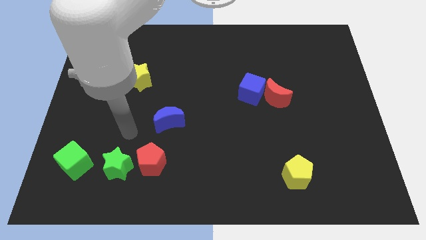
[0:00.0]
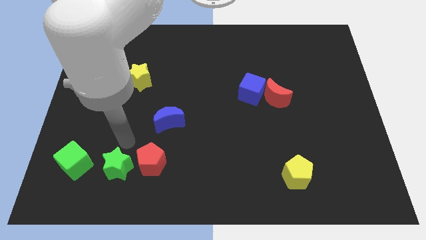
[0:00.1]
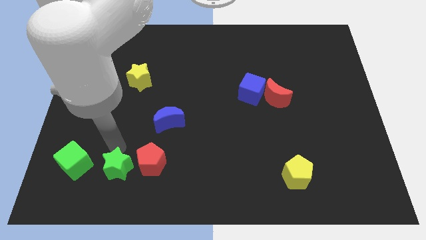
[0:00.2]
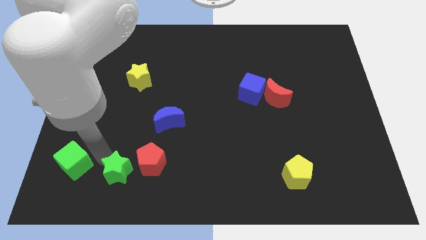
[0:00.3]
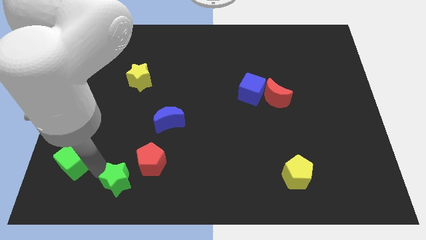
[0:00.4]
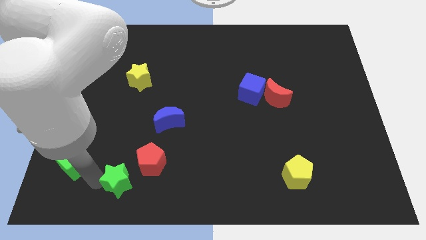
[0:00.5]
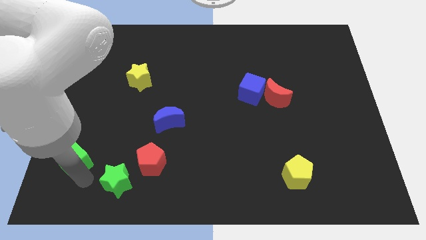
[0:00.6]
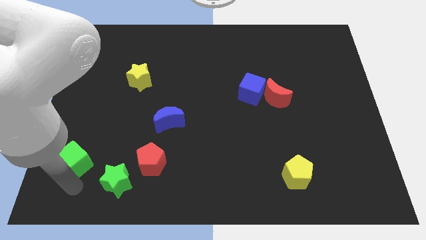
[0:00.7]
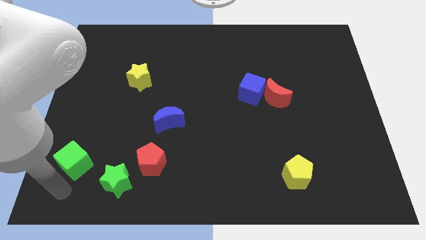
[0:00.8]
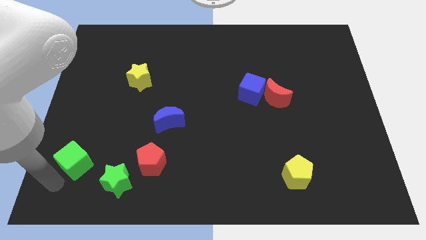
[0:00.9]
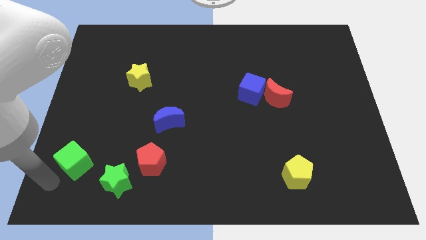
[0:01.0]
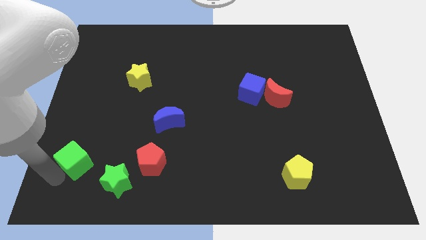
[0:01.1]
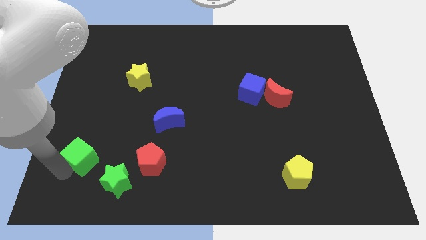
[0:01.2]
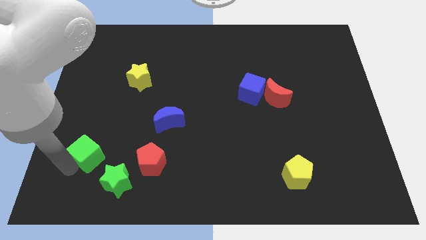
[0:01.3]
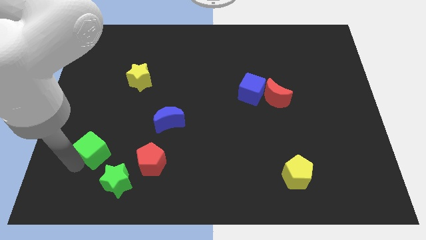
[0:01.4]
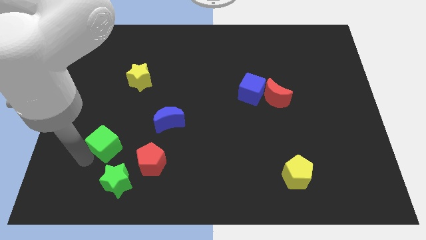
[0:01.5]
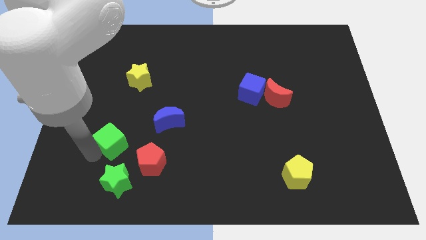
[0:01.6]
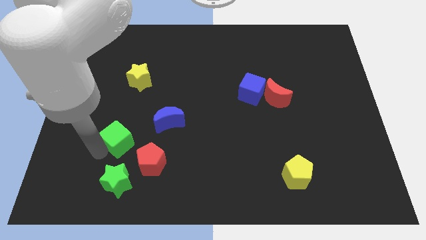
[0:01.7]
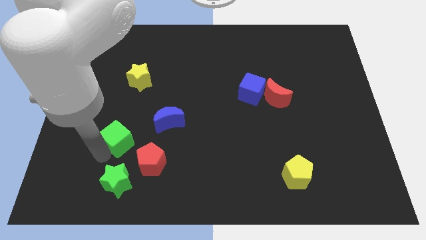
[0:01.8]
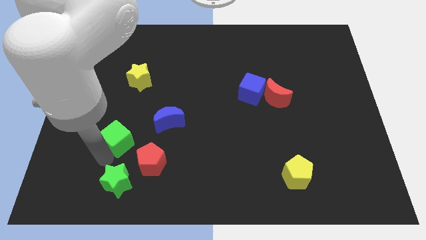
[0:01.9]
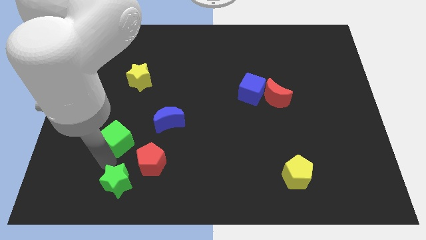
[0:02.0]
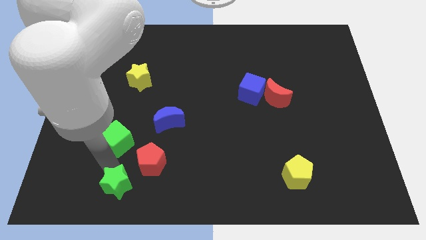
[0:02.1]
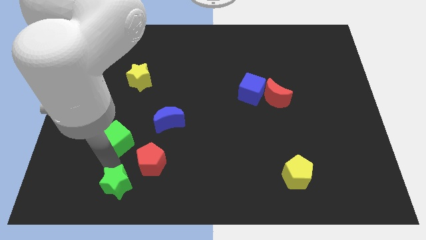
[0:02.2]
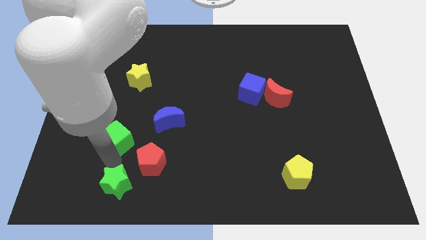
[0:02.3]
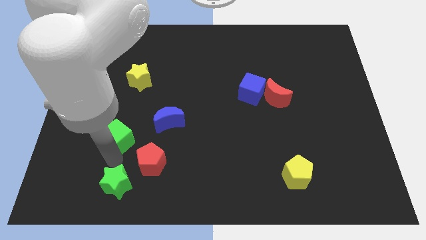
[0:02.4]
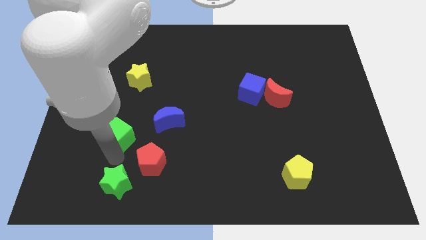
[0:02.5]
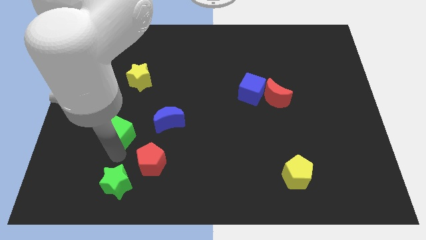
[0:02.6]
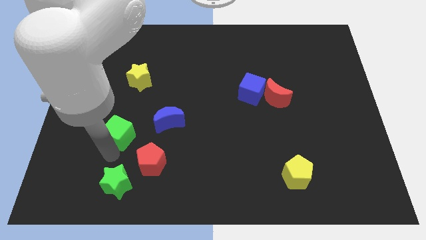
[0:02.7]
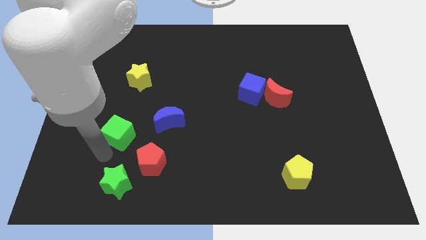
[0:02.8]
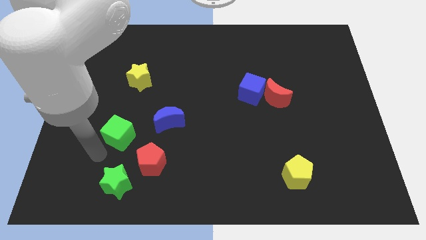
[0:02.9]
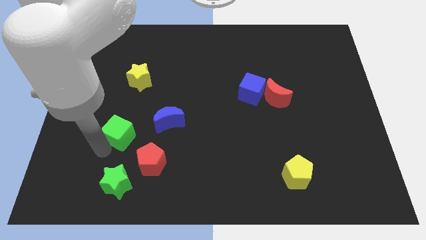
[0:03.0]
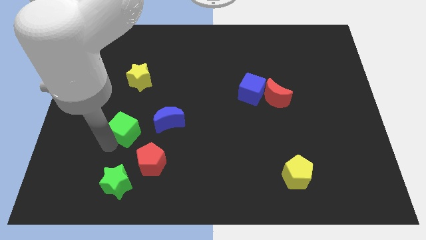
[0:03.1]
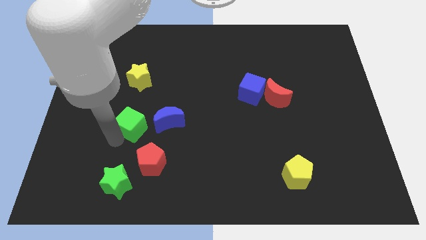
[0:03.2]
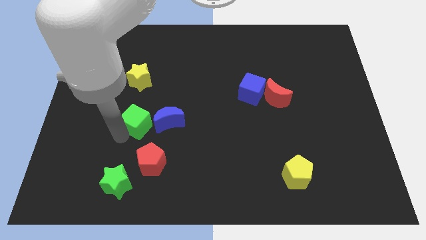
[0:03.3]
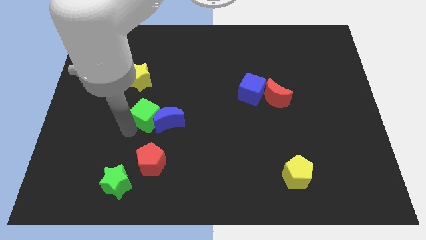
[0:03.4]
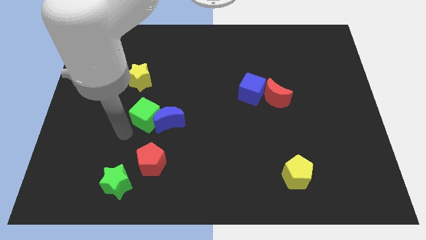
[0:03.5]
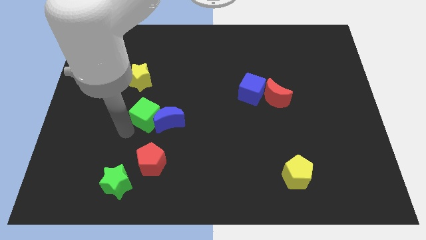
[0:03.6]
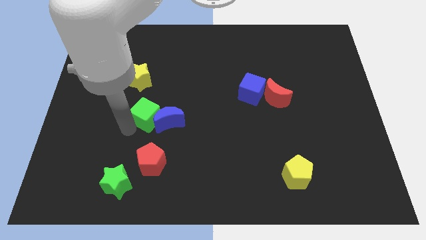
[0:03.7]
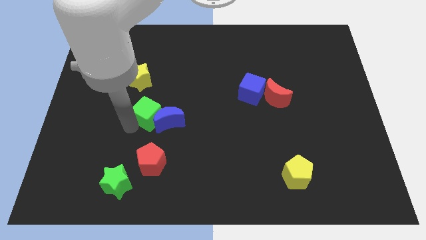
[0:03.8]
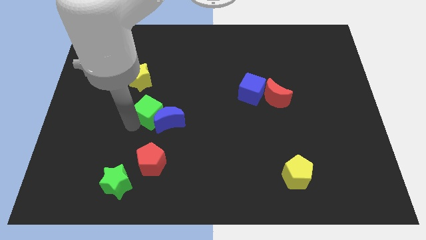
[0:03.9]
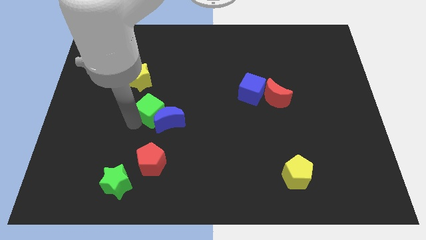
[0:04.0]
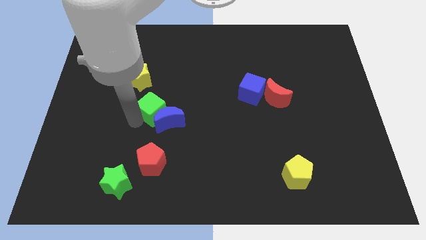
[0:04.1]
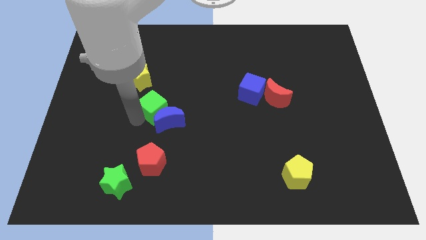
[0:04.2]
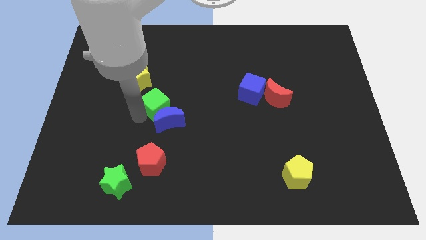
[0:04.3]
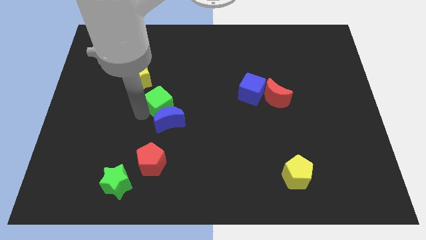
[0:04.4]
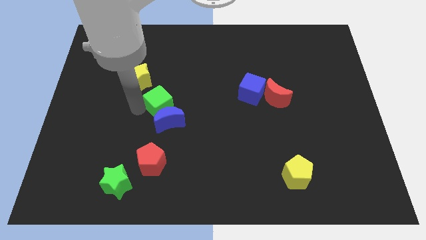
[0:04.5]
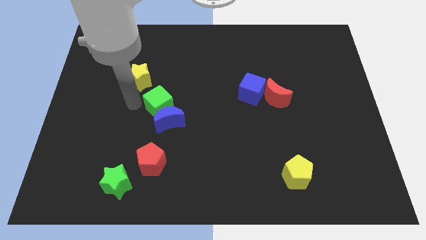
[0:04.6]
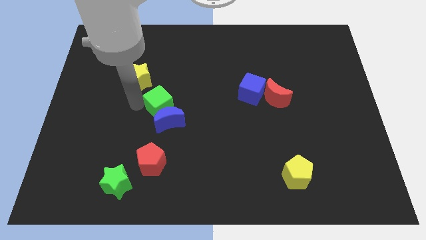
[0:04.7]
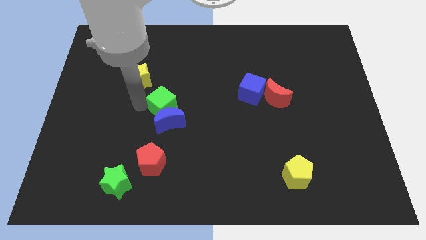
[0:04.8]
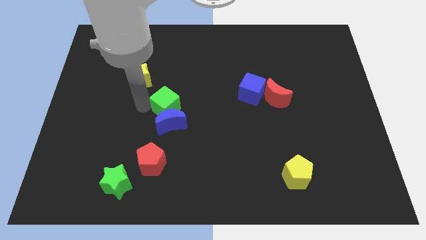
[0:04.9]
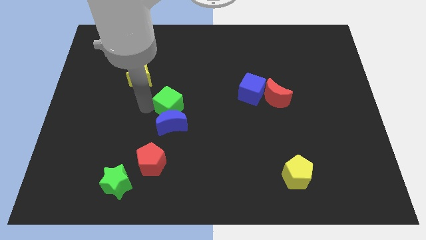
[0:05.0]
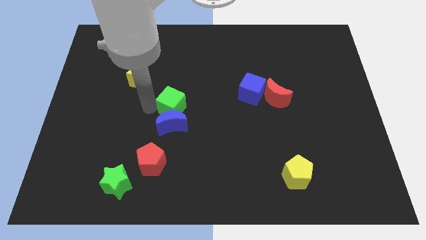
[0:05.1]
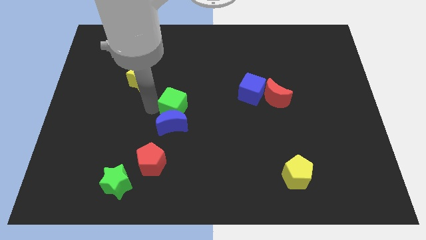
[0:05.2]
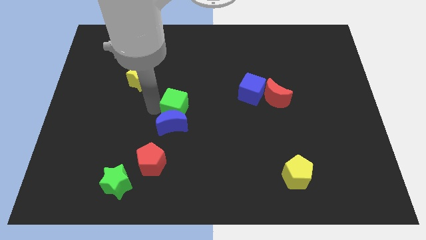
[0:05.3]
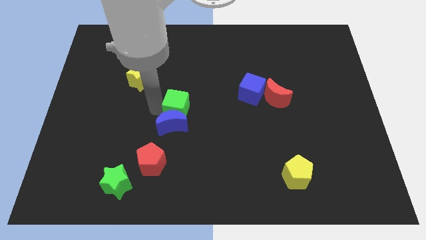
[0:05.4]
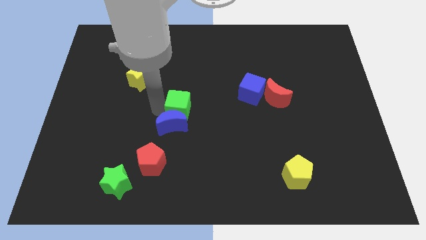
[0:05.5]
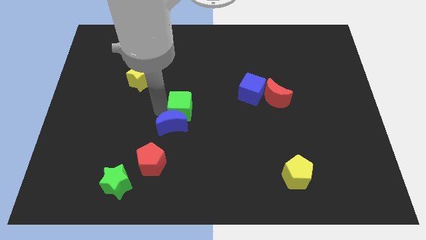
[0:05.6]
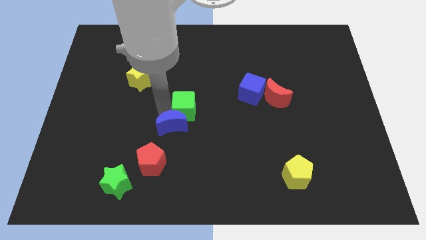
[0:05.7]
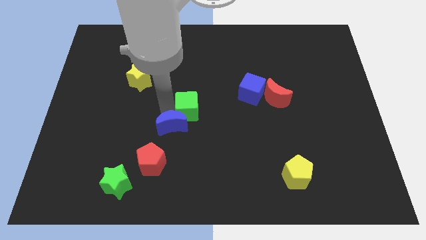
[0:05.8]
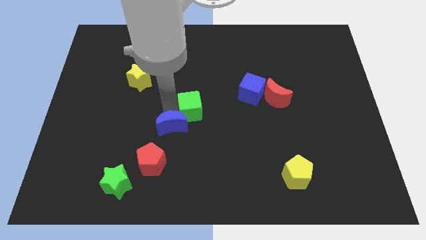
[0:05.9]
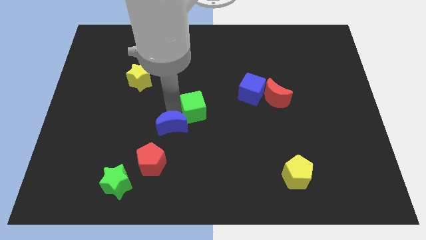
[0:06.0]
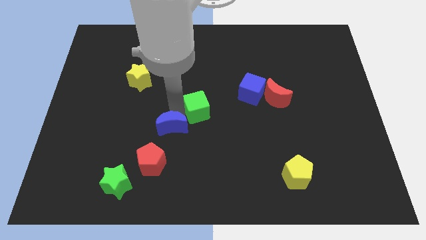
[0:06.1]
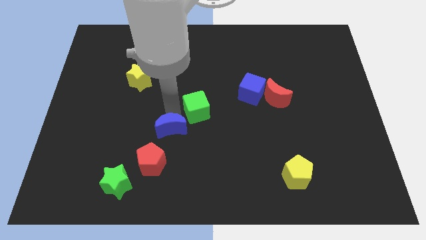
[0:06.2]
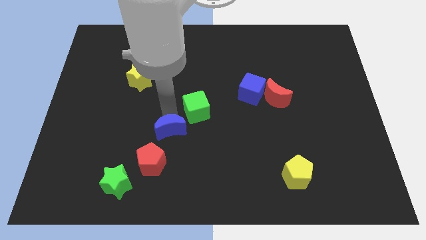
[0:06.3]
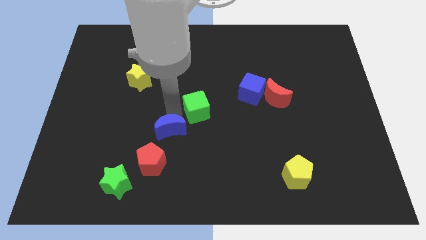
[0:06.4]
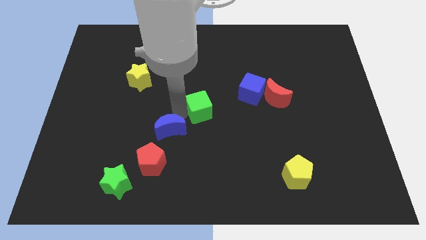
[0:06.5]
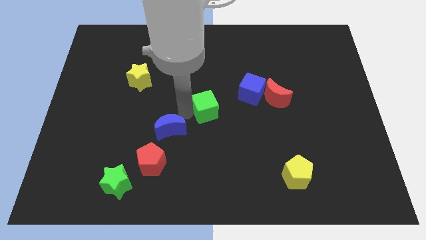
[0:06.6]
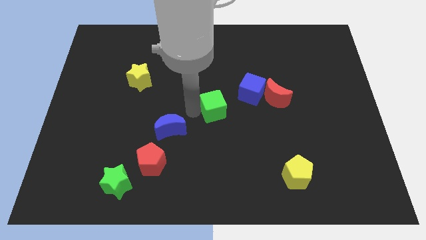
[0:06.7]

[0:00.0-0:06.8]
push the green cube to the bottom left side of the blue cube

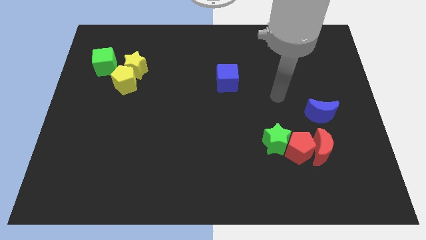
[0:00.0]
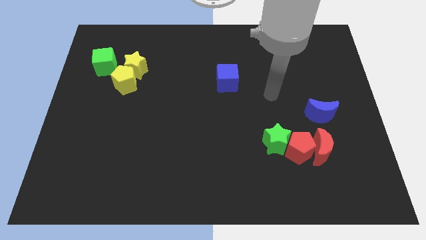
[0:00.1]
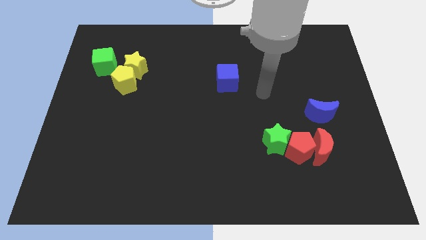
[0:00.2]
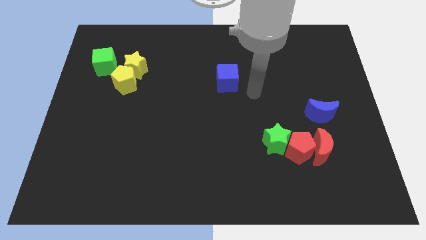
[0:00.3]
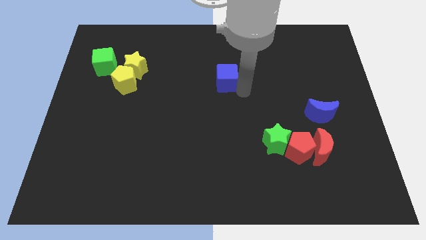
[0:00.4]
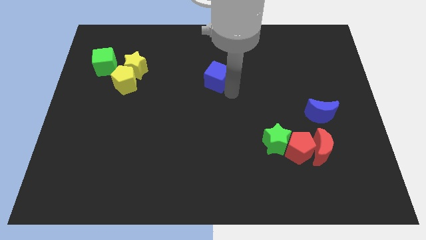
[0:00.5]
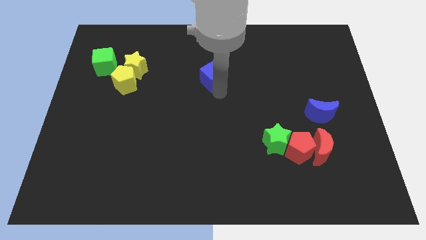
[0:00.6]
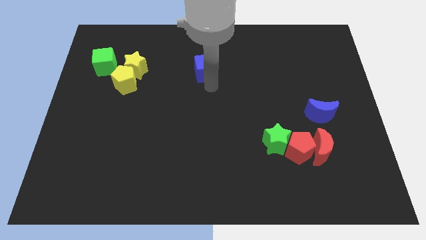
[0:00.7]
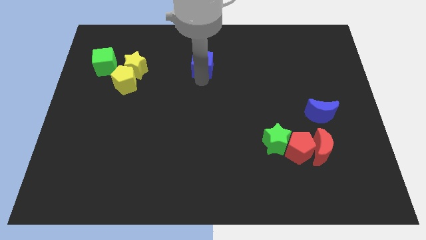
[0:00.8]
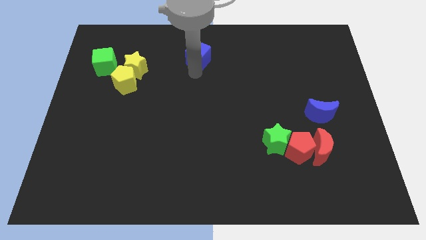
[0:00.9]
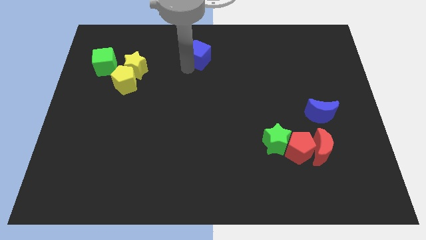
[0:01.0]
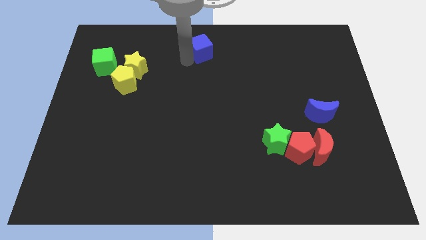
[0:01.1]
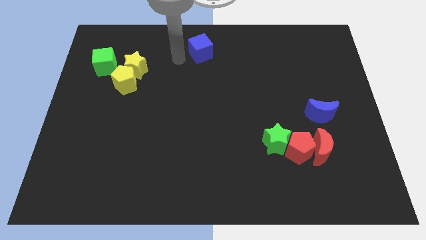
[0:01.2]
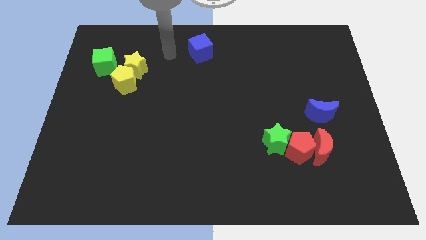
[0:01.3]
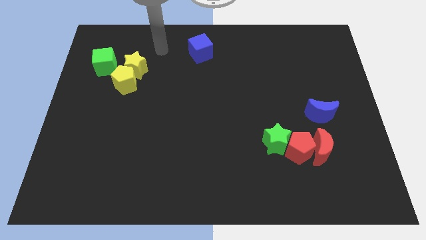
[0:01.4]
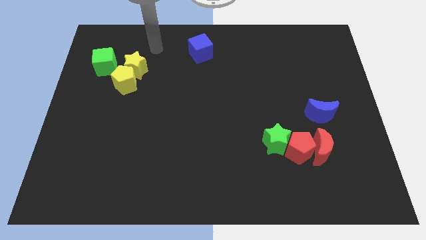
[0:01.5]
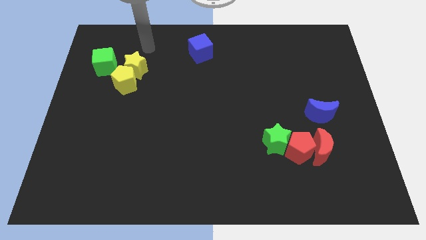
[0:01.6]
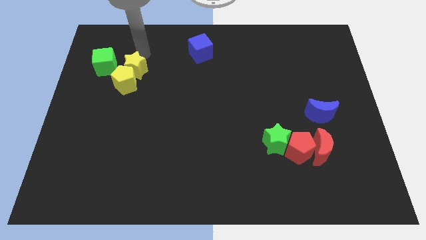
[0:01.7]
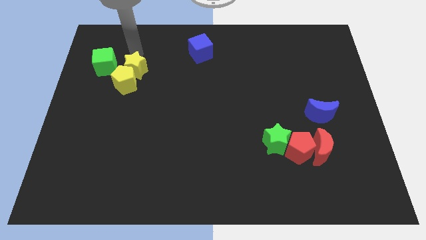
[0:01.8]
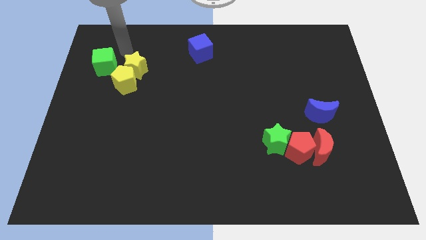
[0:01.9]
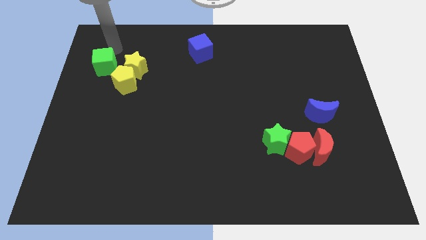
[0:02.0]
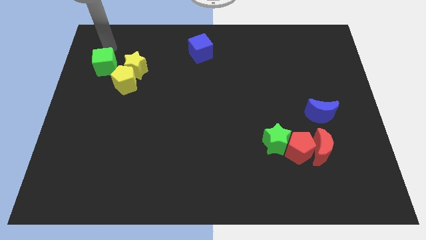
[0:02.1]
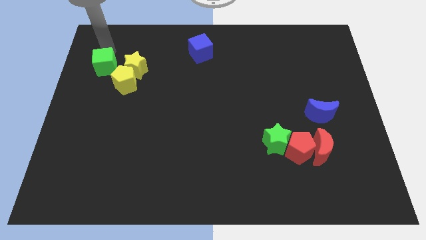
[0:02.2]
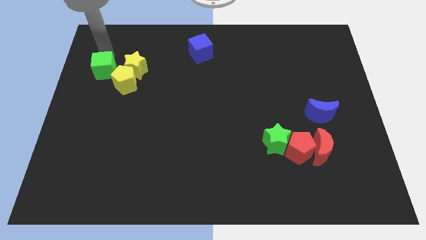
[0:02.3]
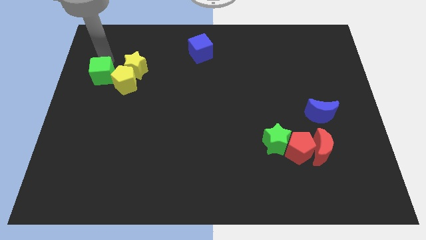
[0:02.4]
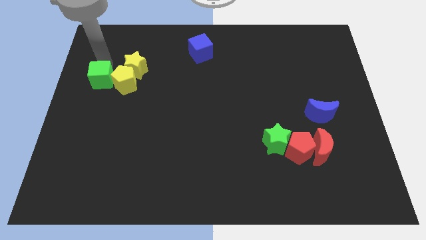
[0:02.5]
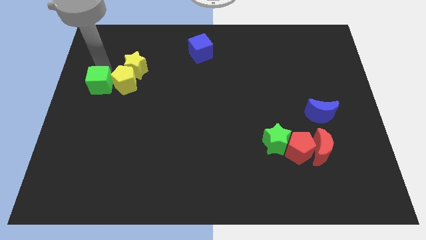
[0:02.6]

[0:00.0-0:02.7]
move the green cube diagonally down and to the left of the yellow pentagon
